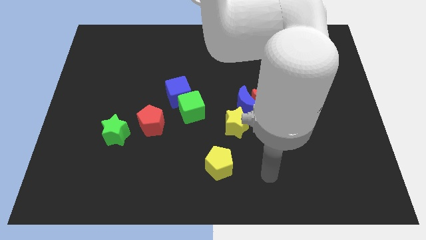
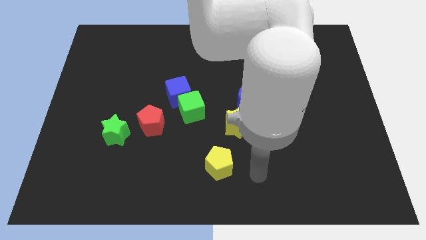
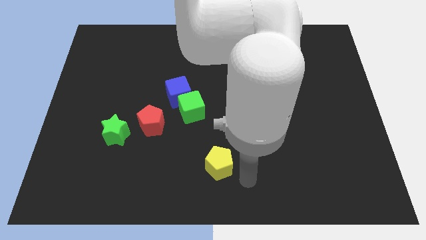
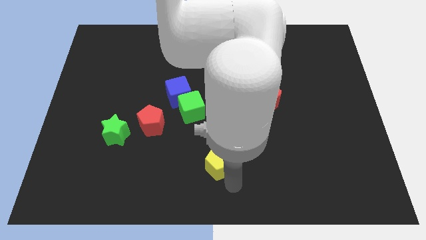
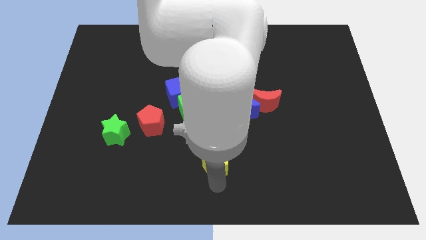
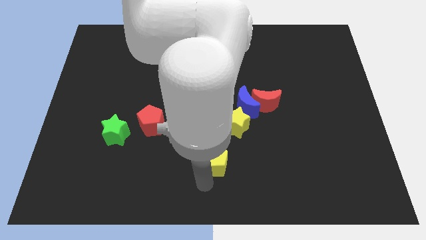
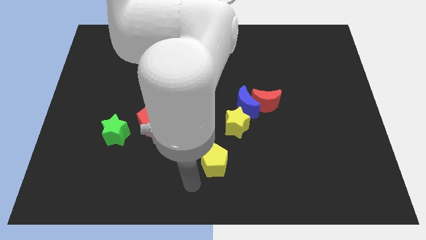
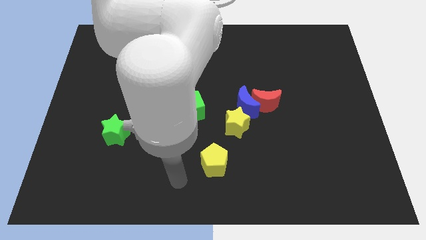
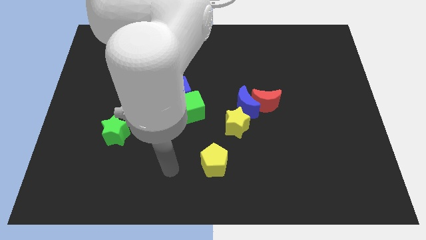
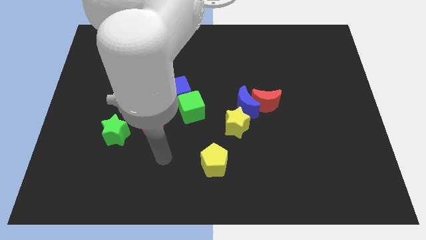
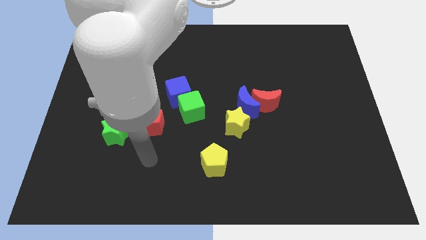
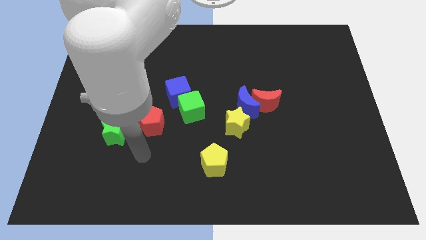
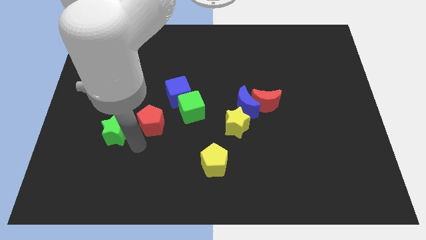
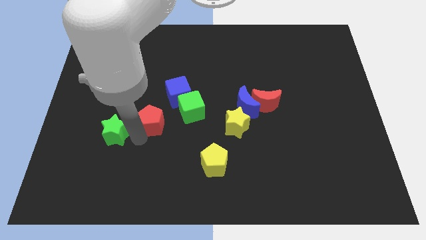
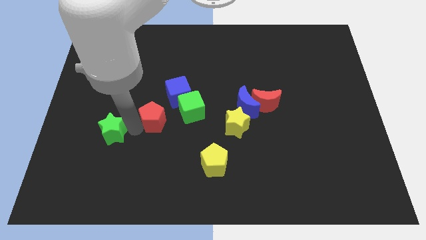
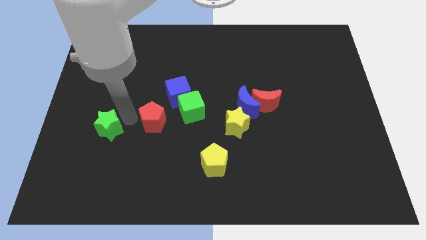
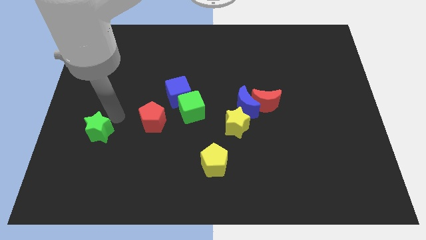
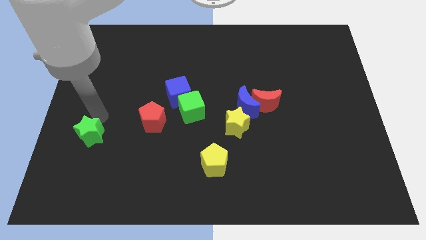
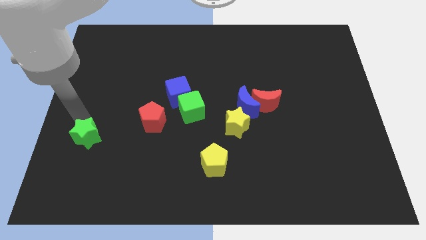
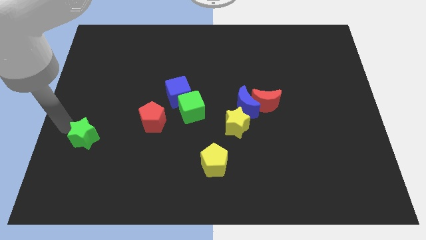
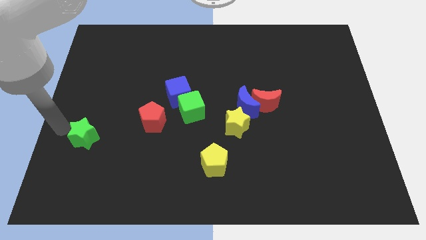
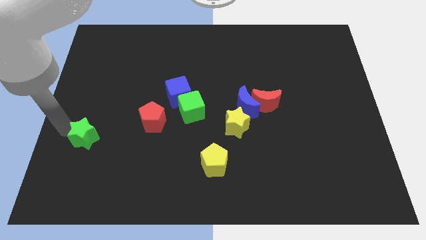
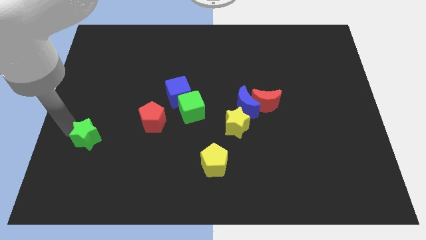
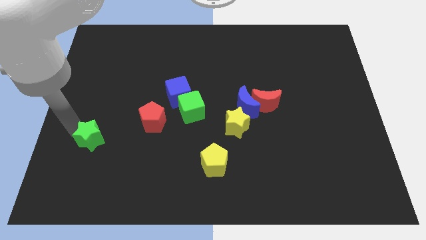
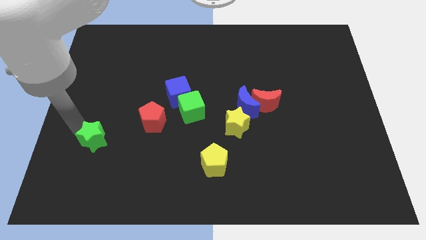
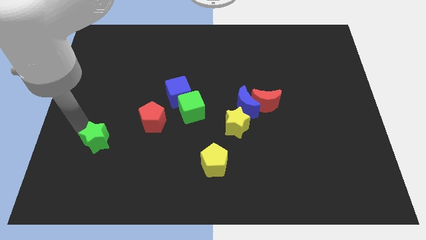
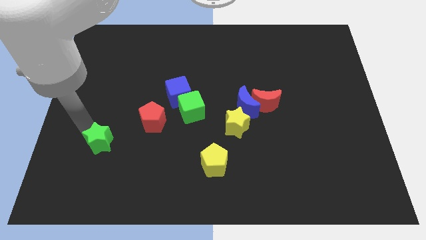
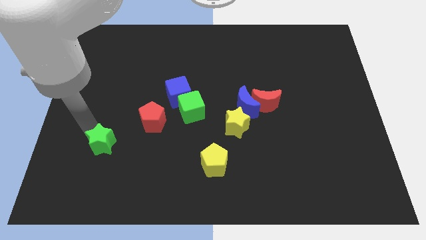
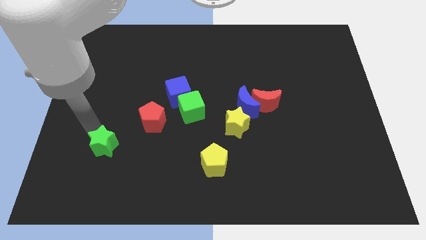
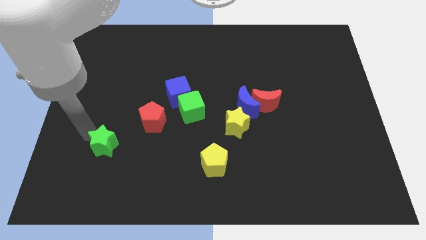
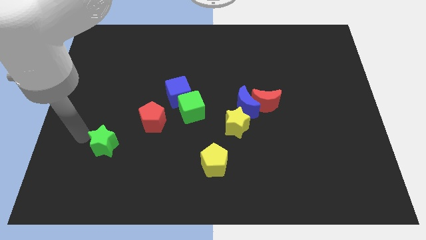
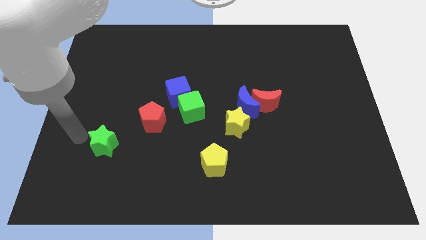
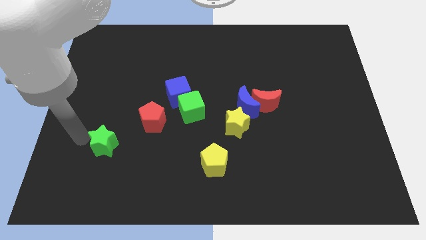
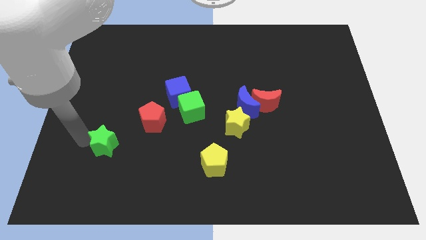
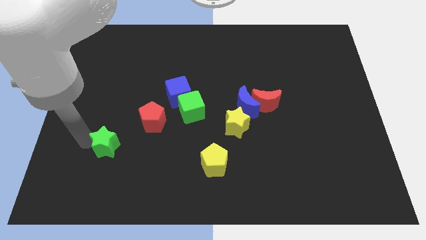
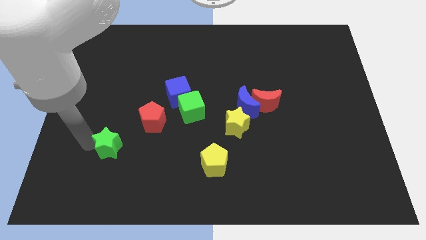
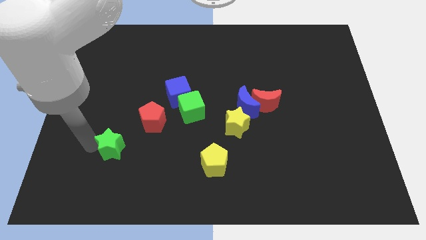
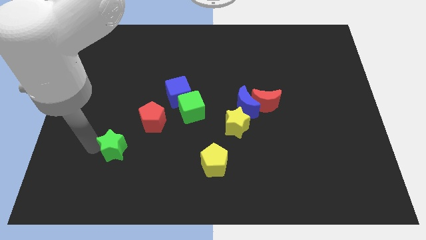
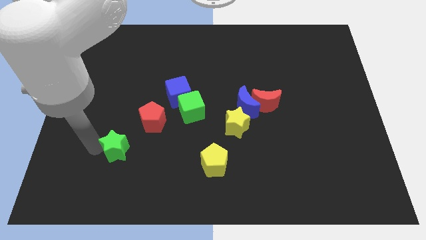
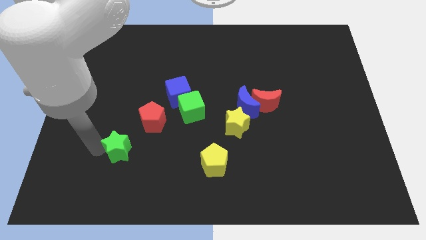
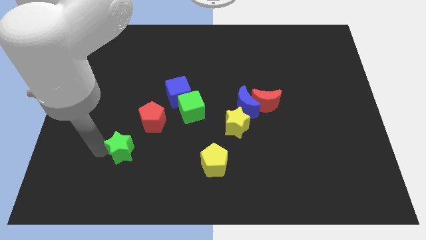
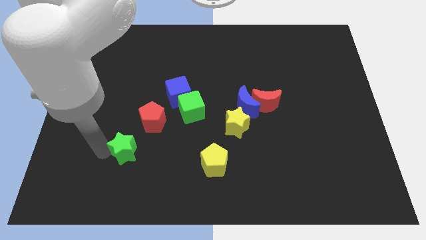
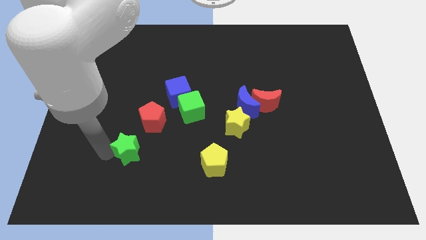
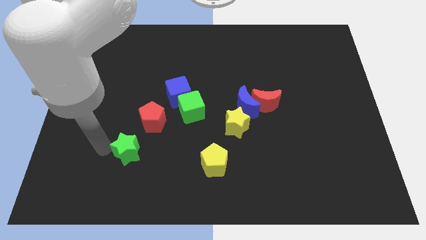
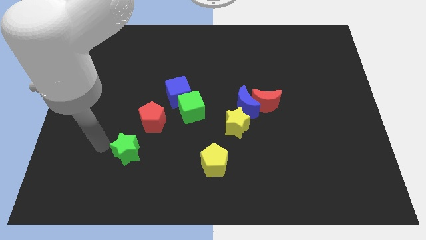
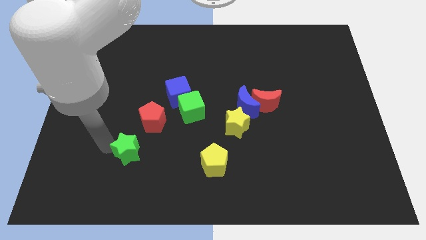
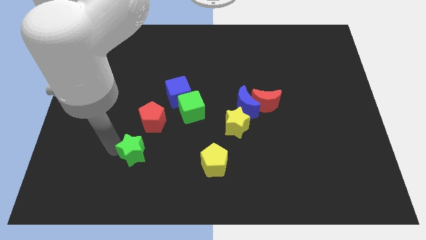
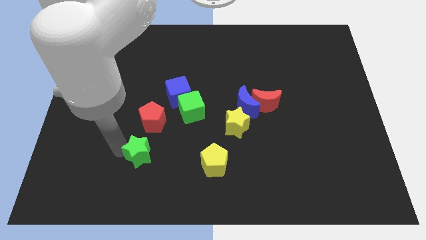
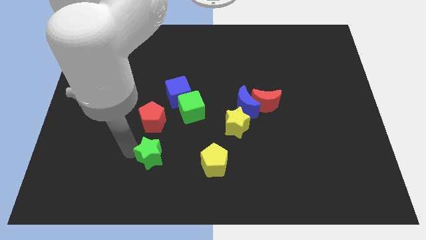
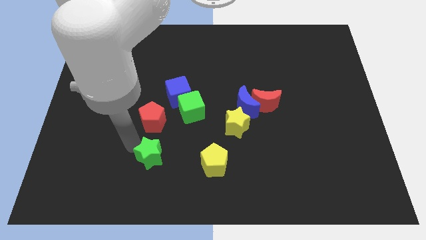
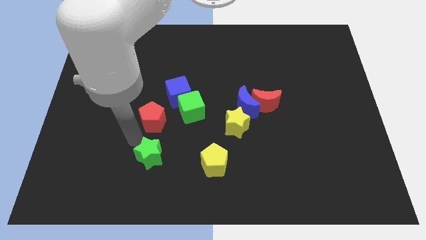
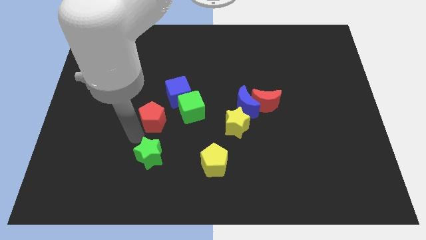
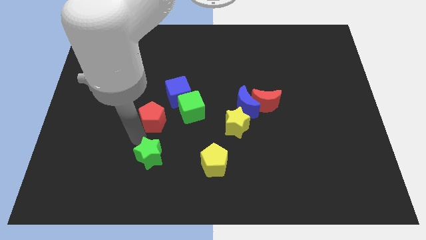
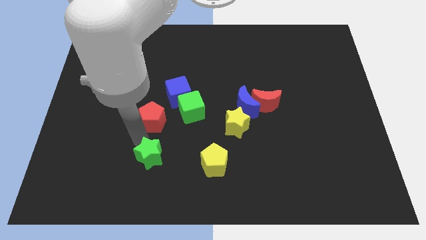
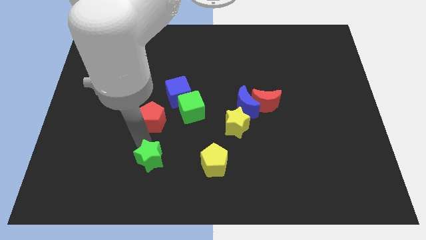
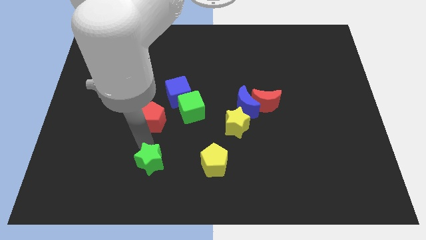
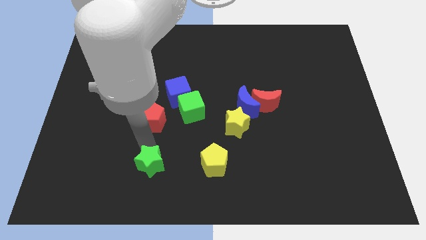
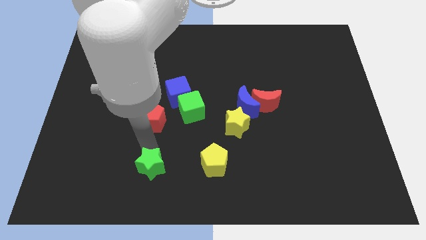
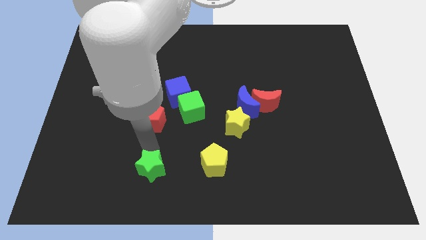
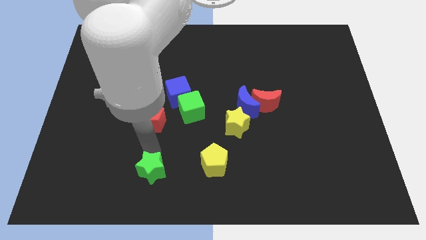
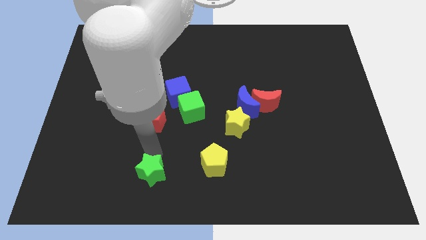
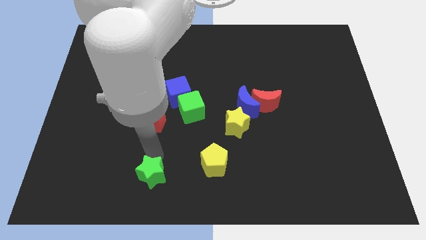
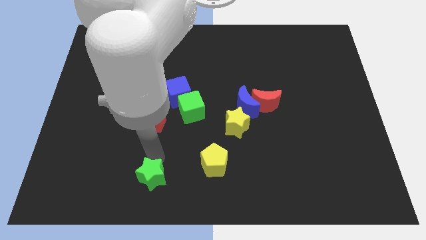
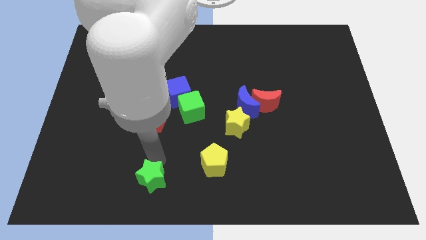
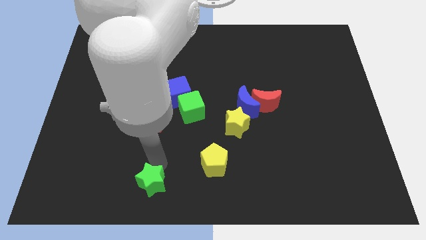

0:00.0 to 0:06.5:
slide the green star to the bottom side

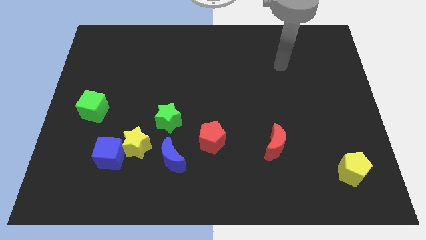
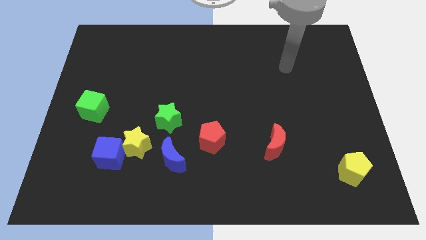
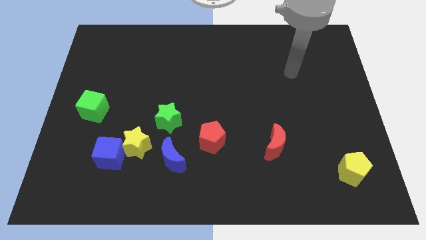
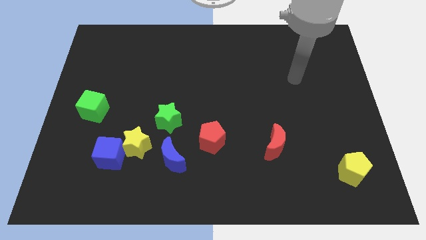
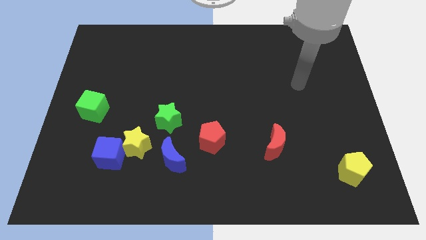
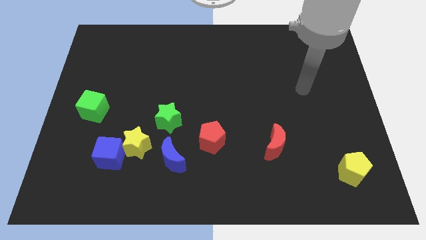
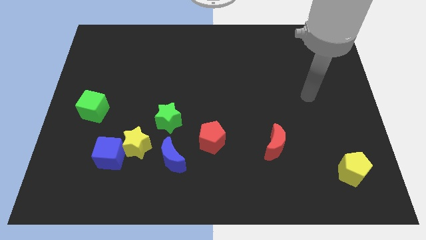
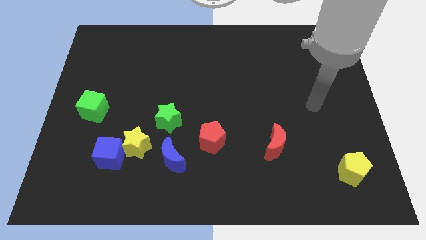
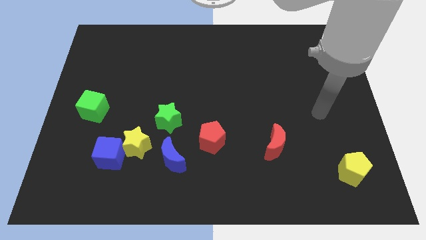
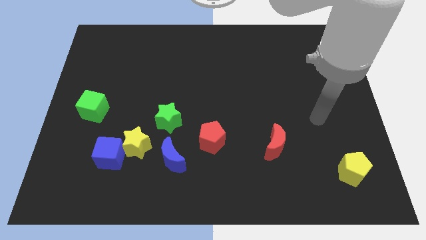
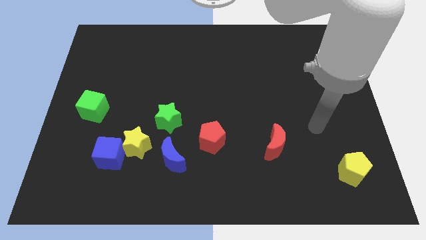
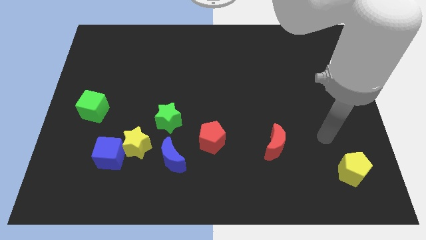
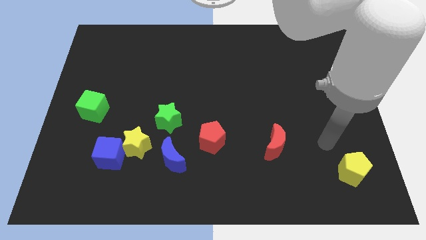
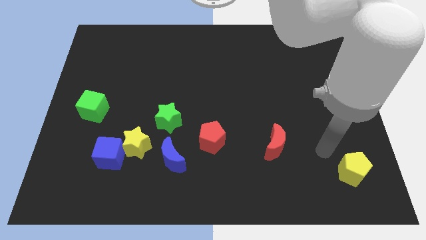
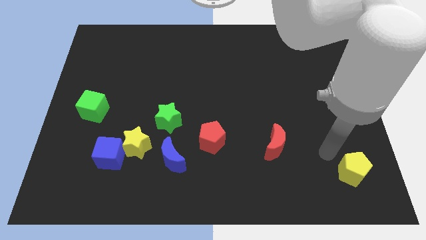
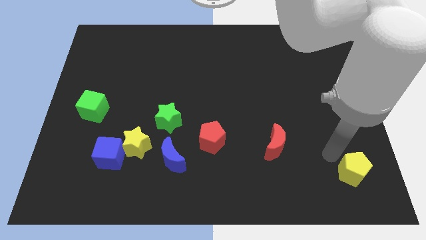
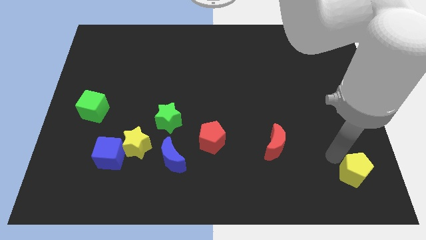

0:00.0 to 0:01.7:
move the yellow pentagon to the bottom right of the board
